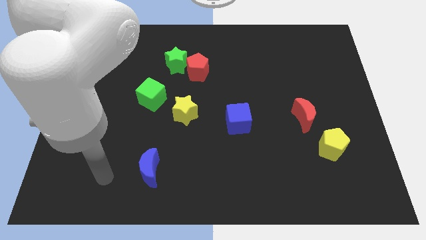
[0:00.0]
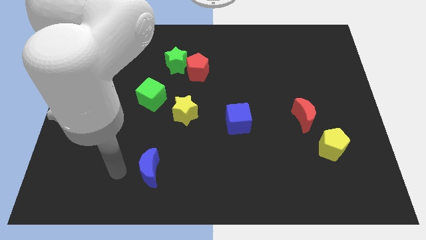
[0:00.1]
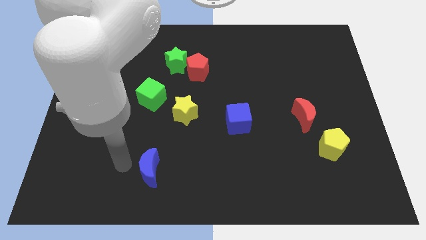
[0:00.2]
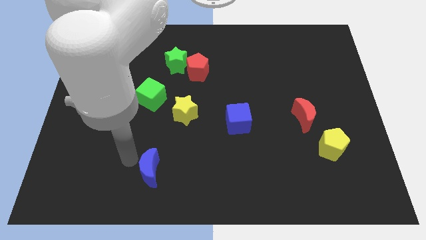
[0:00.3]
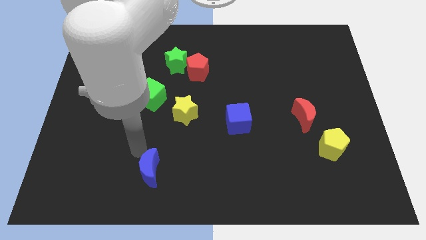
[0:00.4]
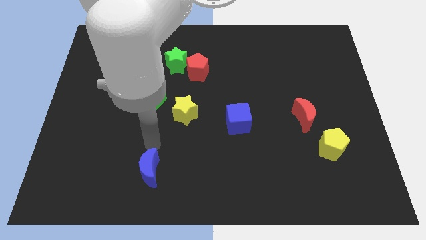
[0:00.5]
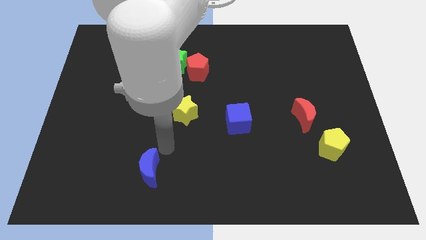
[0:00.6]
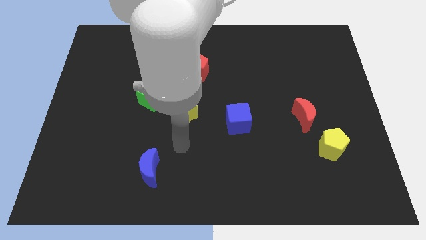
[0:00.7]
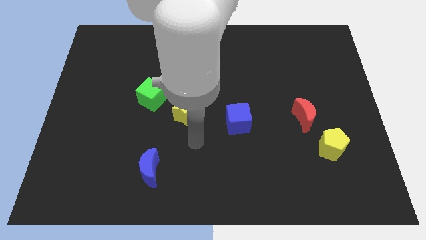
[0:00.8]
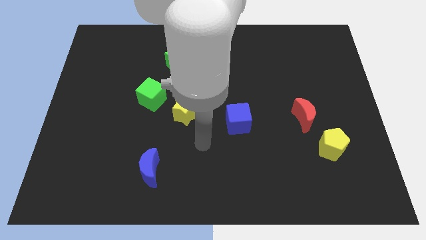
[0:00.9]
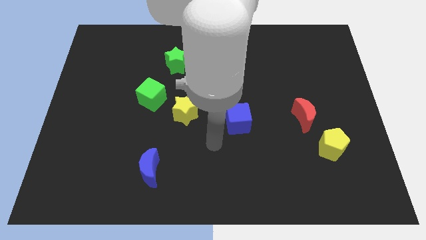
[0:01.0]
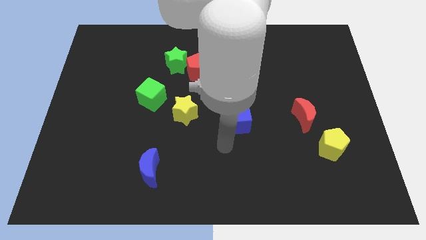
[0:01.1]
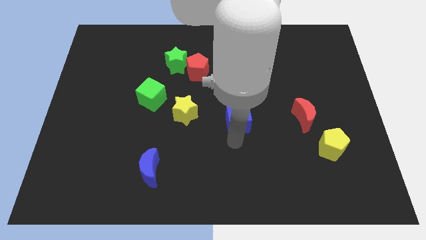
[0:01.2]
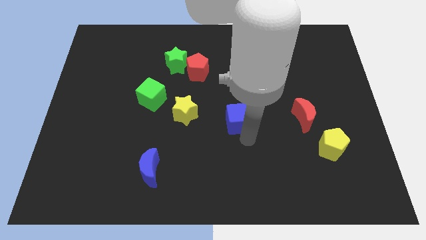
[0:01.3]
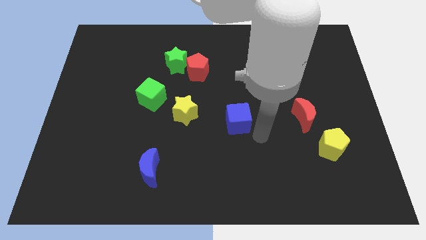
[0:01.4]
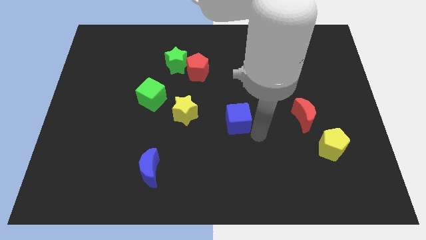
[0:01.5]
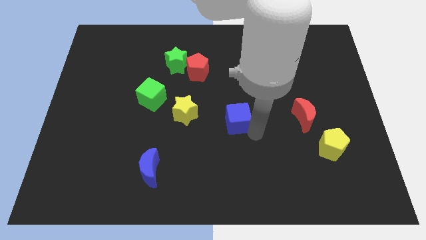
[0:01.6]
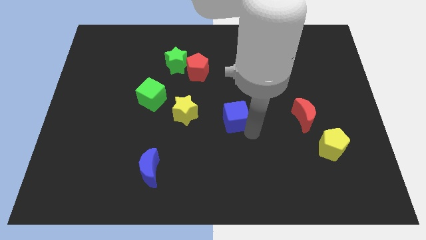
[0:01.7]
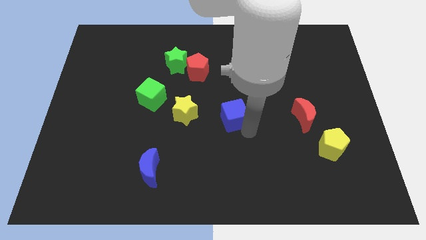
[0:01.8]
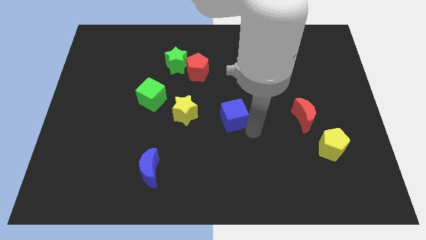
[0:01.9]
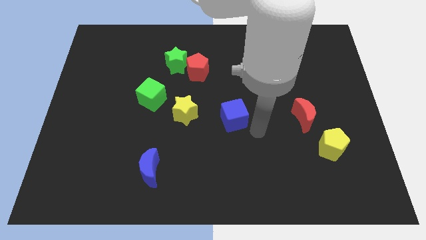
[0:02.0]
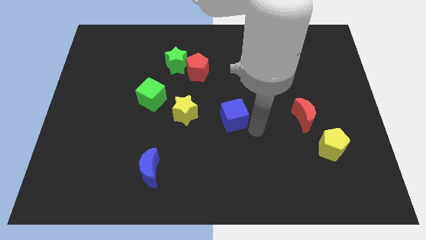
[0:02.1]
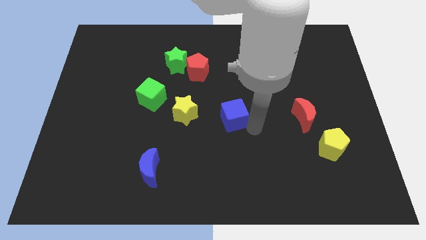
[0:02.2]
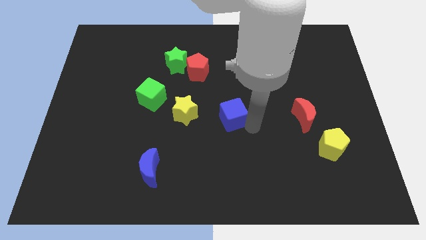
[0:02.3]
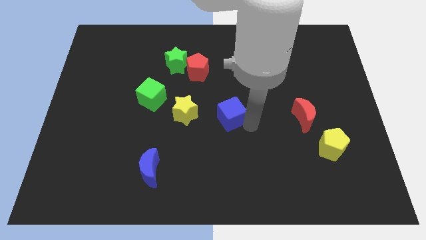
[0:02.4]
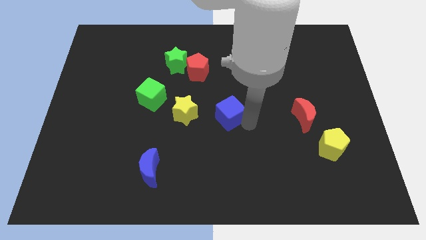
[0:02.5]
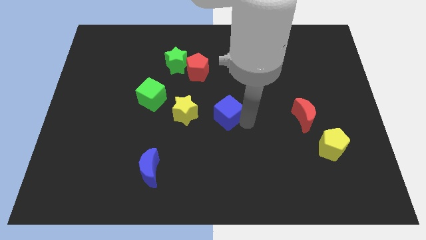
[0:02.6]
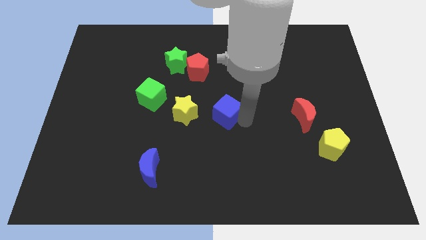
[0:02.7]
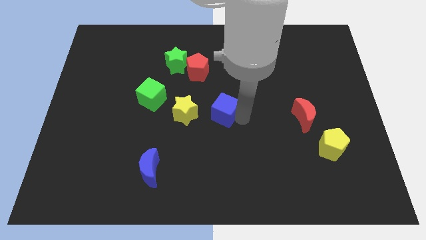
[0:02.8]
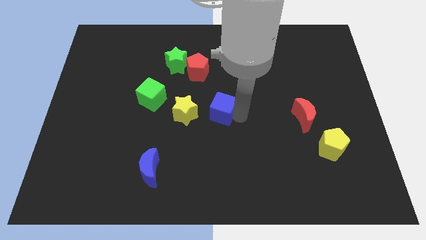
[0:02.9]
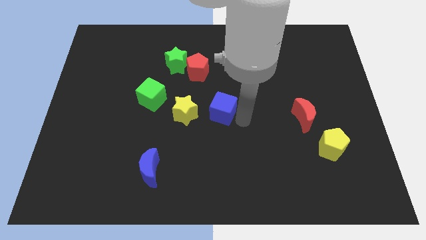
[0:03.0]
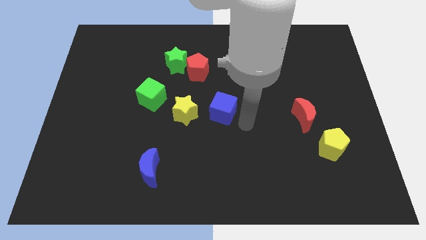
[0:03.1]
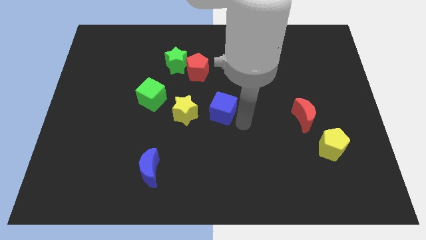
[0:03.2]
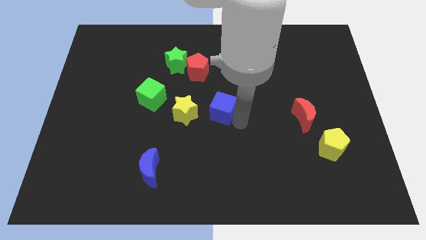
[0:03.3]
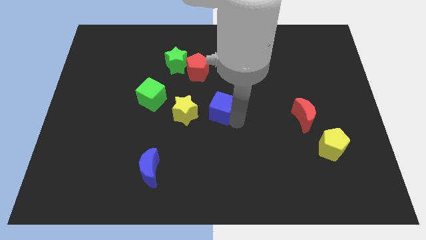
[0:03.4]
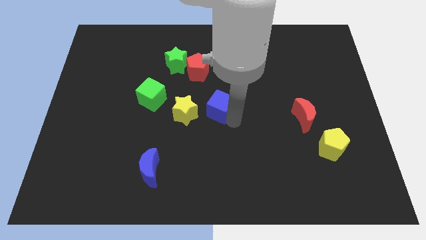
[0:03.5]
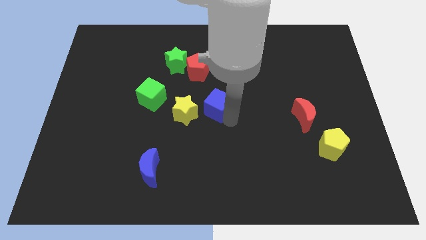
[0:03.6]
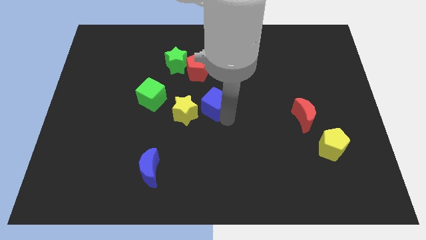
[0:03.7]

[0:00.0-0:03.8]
slightly push the blue cube up and to the left diagonally

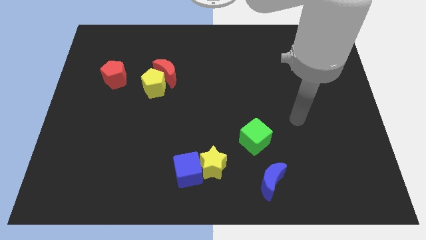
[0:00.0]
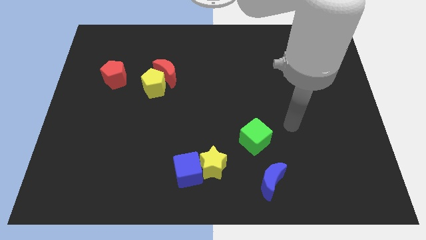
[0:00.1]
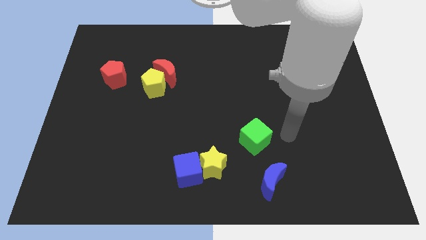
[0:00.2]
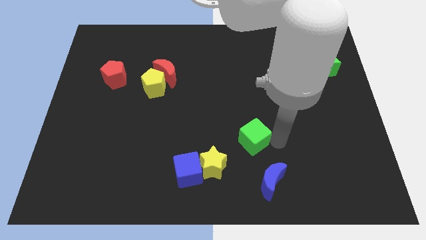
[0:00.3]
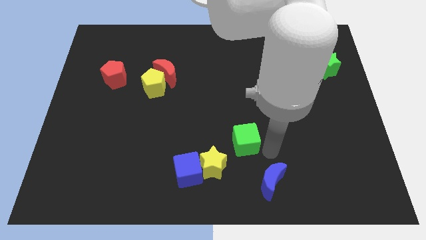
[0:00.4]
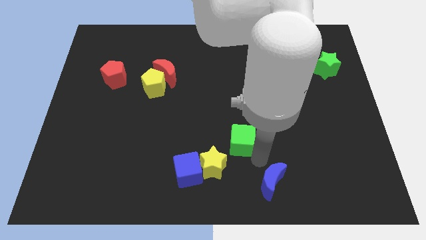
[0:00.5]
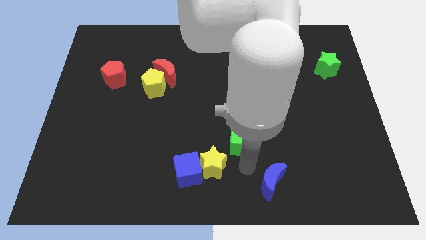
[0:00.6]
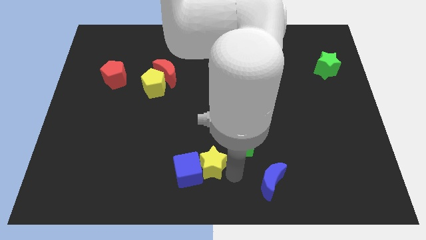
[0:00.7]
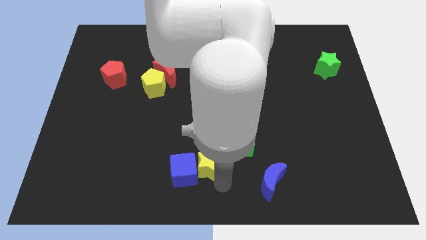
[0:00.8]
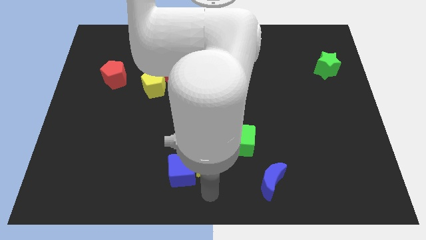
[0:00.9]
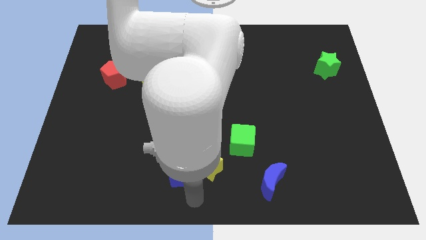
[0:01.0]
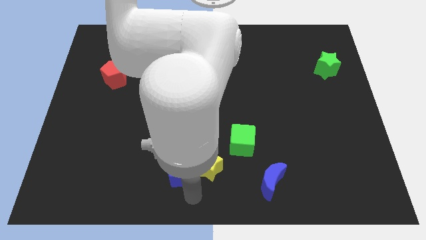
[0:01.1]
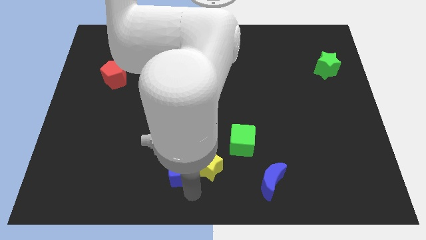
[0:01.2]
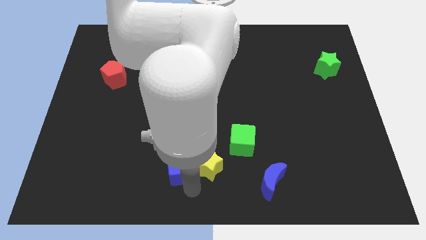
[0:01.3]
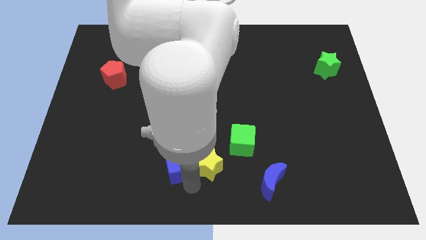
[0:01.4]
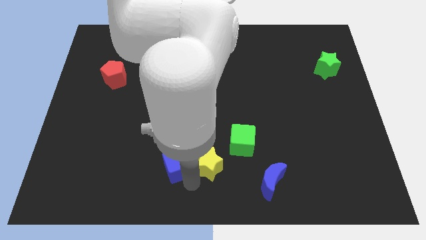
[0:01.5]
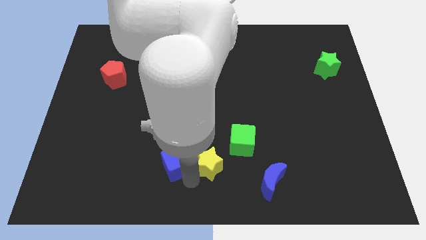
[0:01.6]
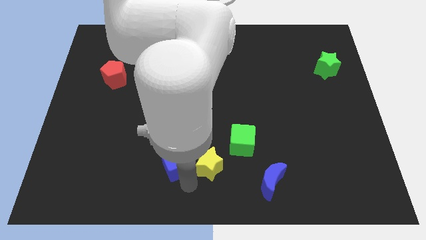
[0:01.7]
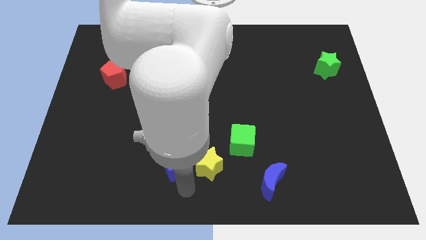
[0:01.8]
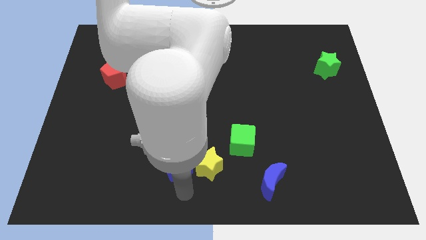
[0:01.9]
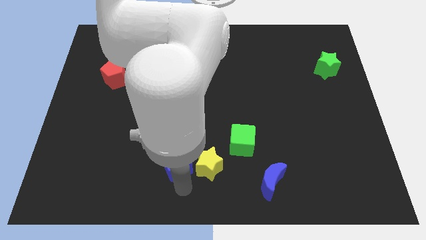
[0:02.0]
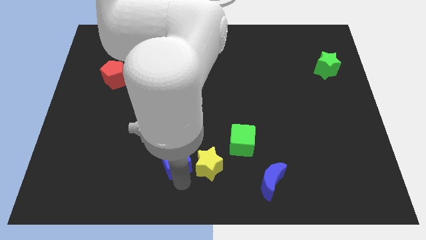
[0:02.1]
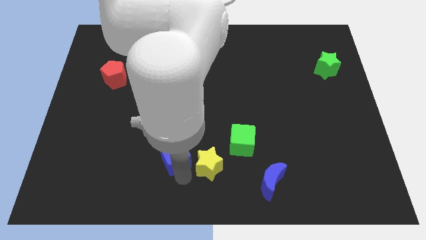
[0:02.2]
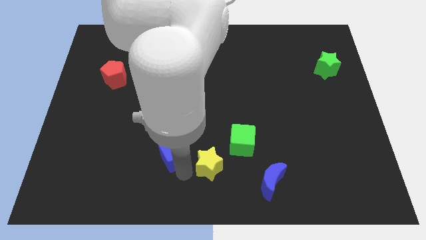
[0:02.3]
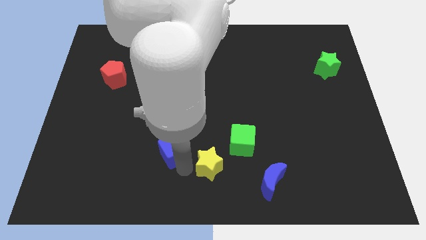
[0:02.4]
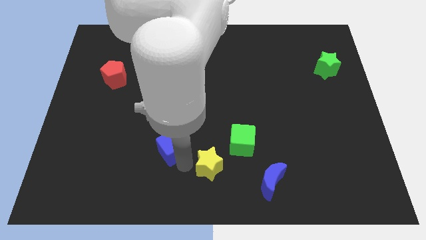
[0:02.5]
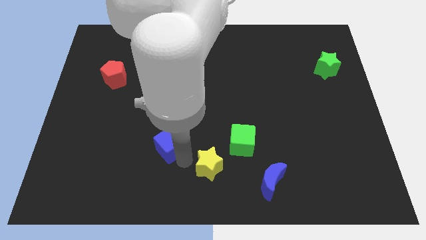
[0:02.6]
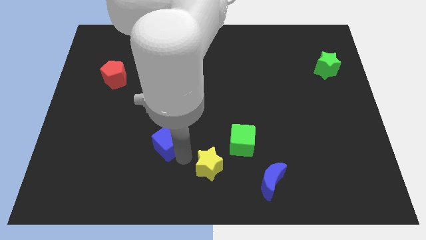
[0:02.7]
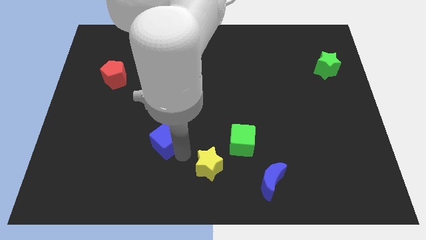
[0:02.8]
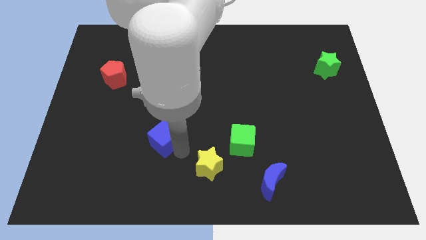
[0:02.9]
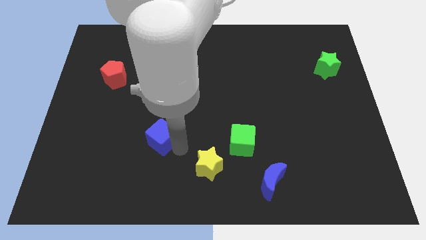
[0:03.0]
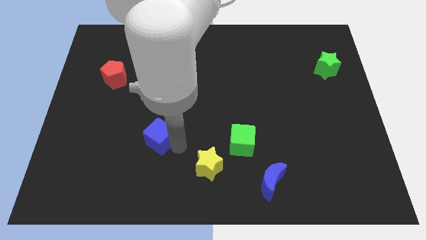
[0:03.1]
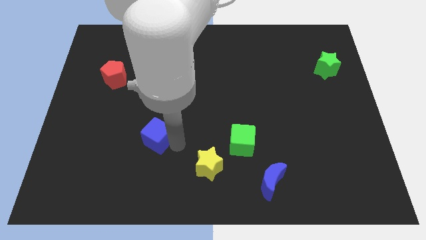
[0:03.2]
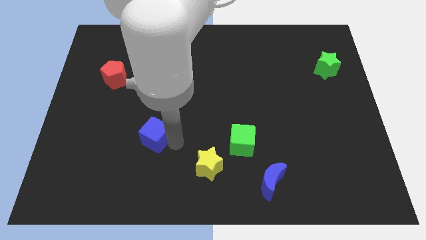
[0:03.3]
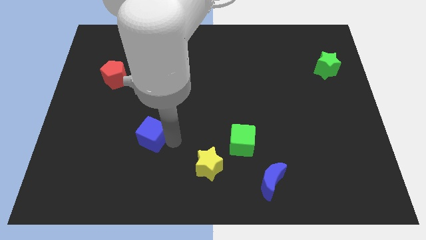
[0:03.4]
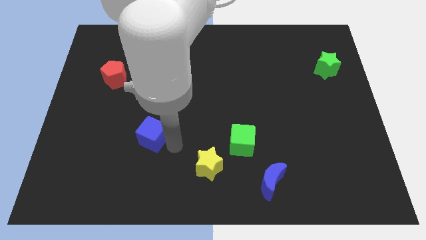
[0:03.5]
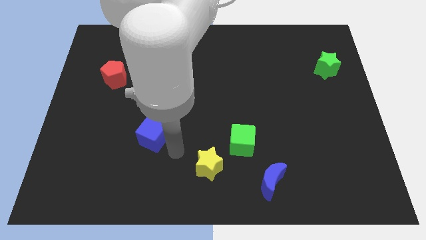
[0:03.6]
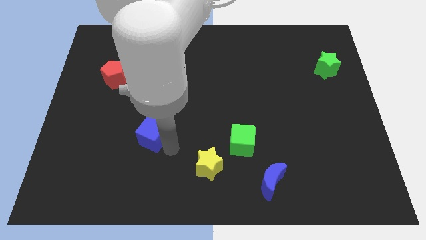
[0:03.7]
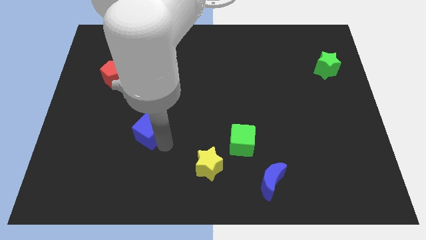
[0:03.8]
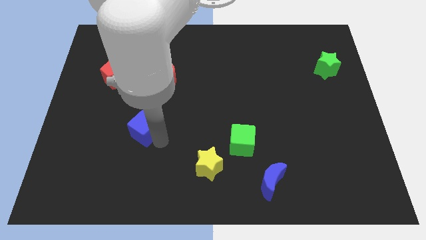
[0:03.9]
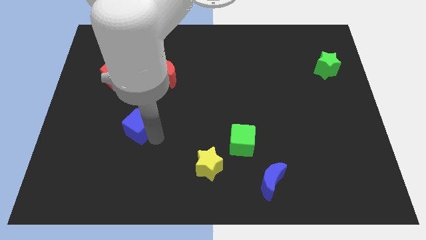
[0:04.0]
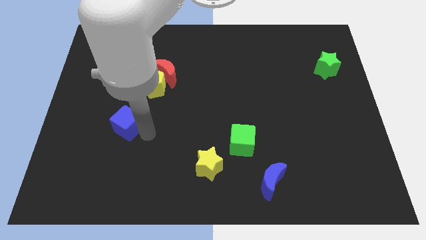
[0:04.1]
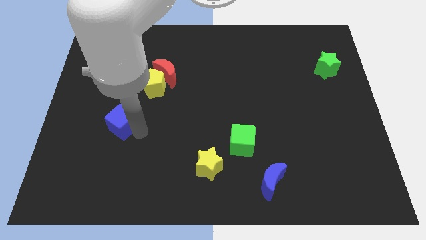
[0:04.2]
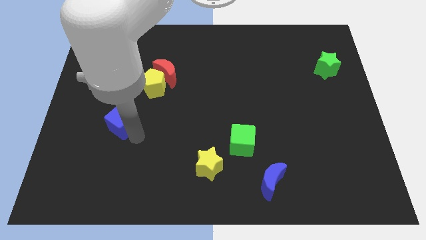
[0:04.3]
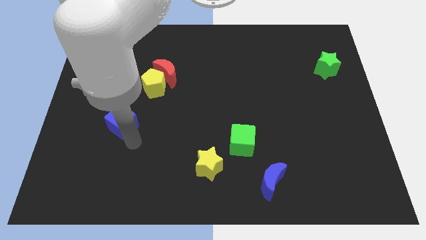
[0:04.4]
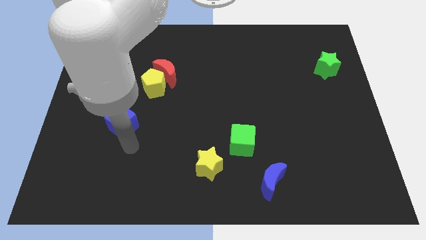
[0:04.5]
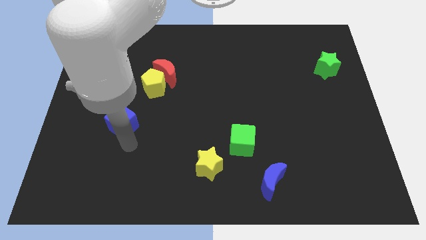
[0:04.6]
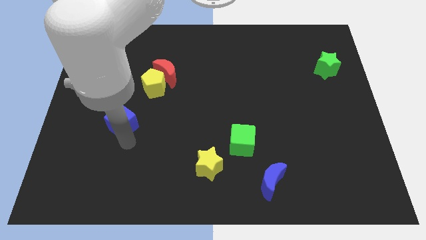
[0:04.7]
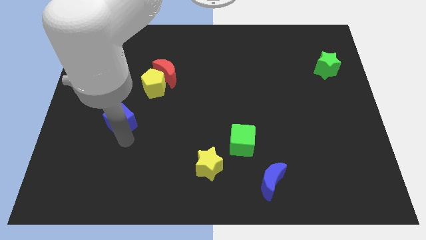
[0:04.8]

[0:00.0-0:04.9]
slide the blue cube upwards and then to the left
